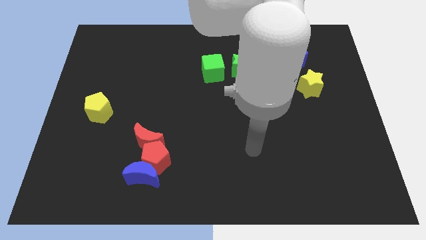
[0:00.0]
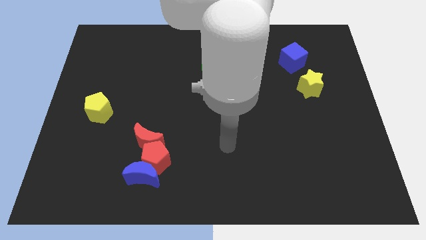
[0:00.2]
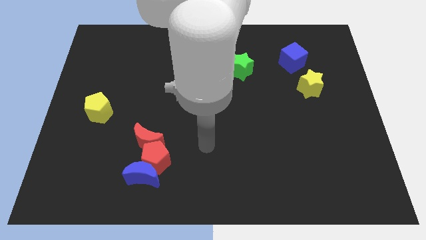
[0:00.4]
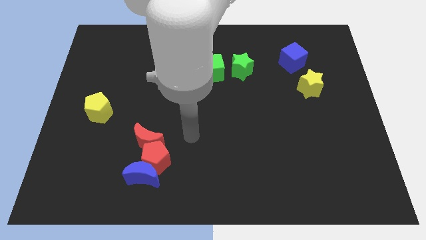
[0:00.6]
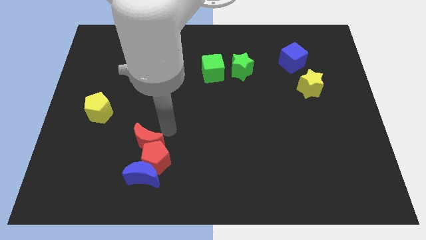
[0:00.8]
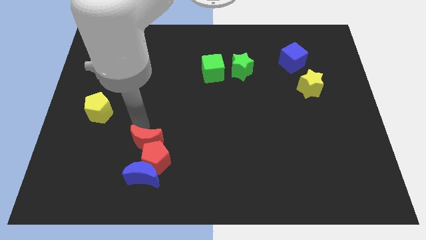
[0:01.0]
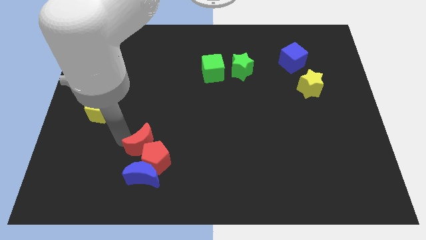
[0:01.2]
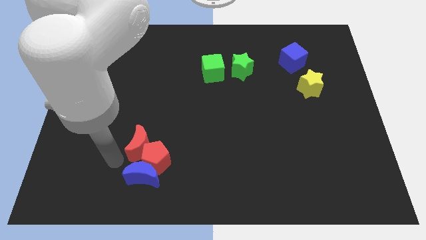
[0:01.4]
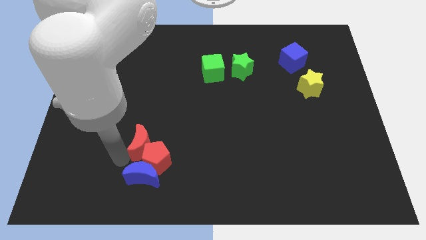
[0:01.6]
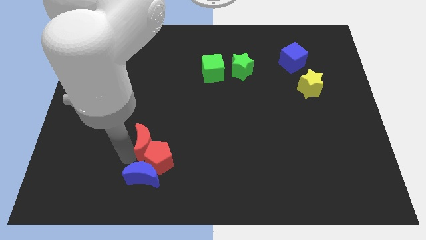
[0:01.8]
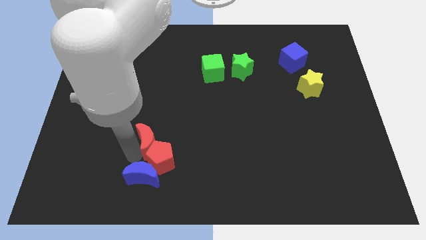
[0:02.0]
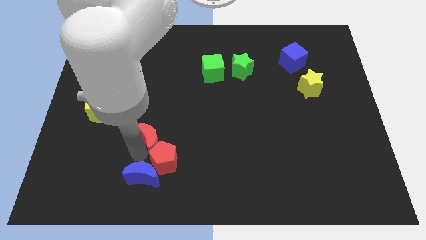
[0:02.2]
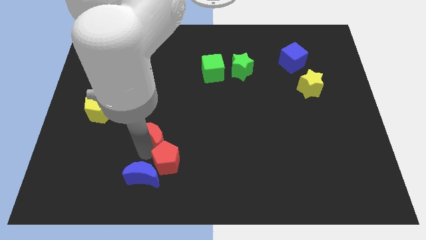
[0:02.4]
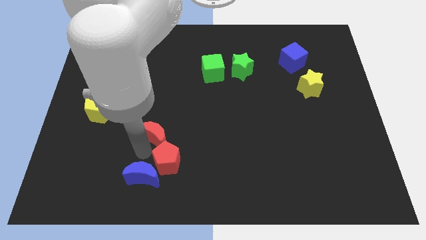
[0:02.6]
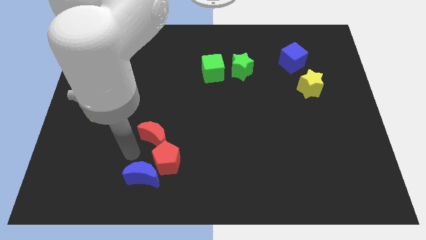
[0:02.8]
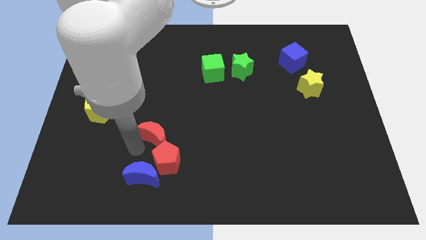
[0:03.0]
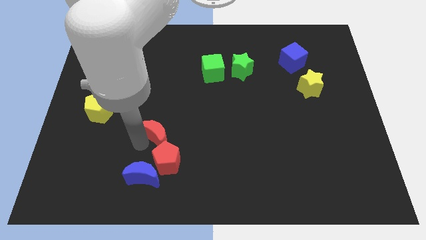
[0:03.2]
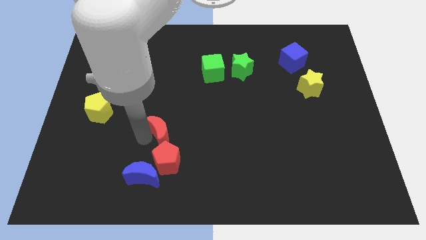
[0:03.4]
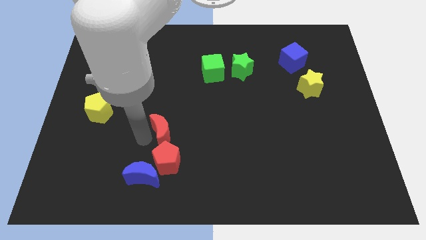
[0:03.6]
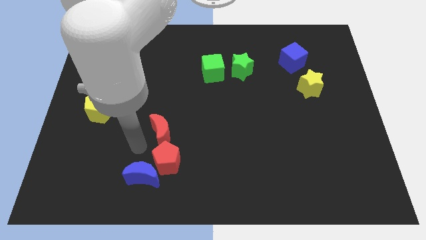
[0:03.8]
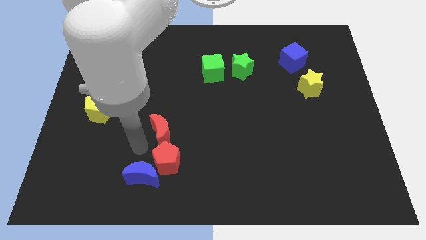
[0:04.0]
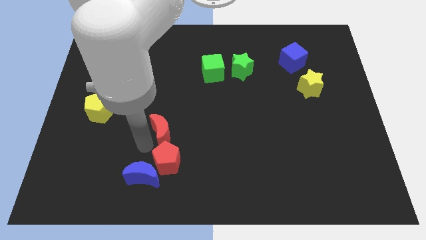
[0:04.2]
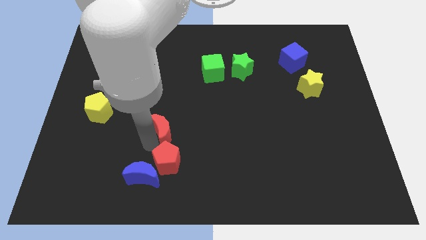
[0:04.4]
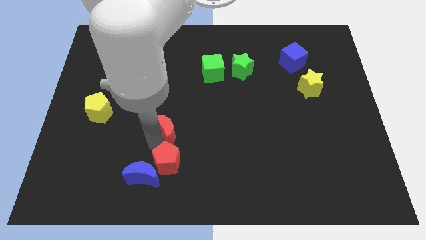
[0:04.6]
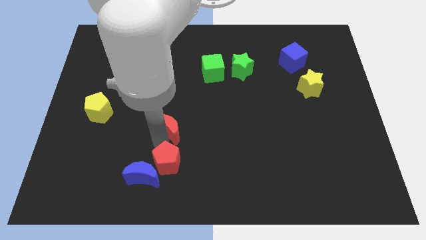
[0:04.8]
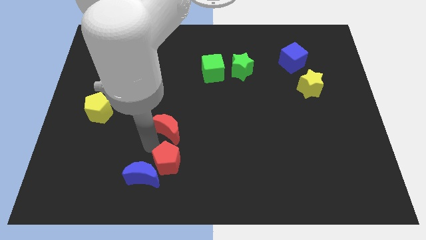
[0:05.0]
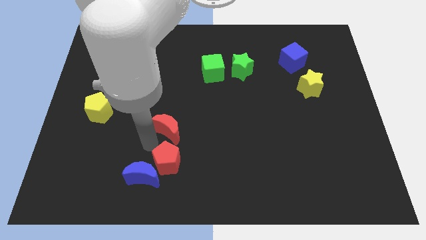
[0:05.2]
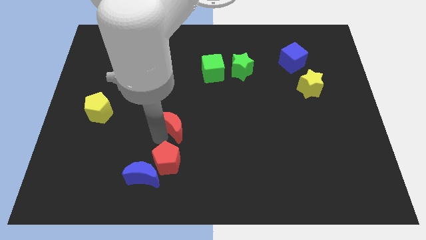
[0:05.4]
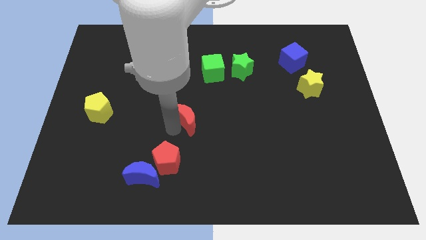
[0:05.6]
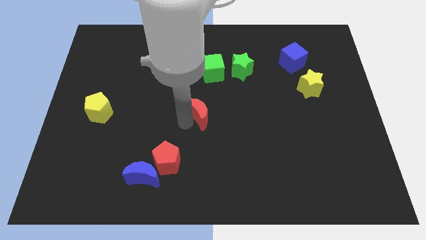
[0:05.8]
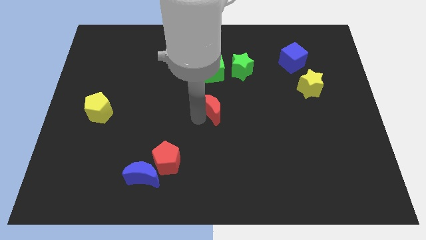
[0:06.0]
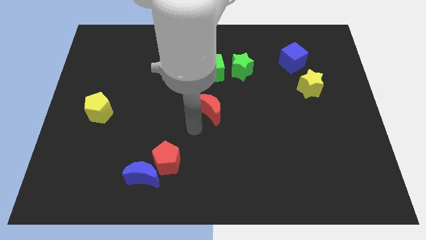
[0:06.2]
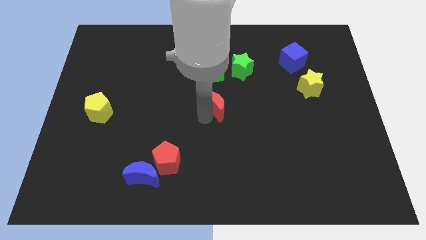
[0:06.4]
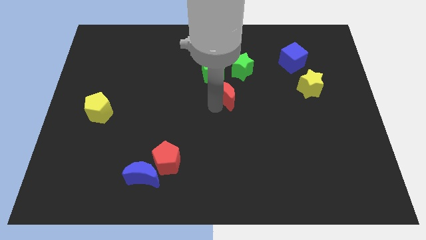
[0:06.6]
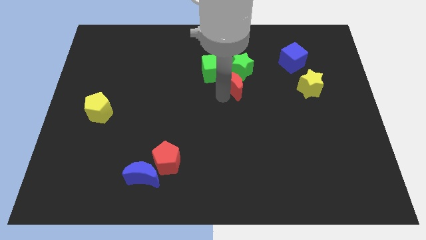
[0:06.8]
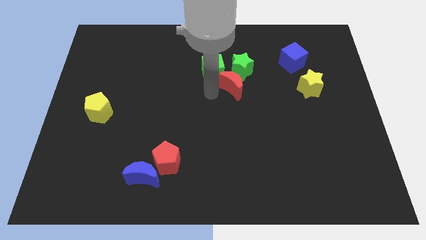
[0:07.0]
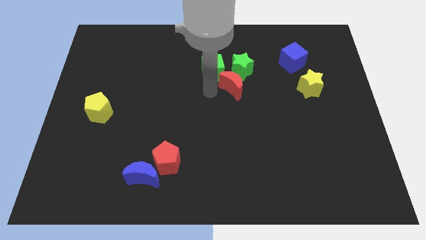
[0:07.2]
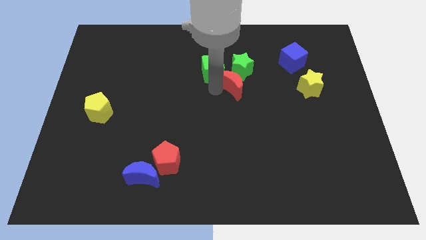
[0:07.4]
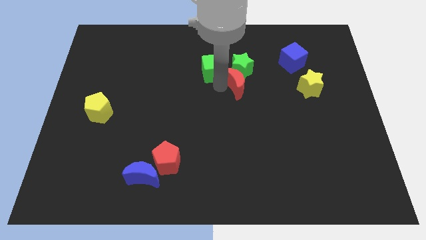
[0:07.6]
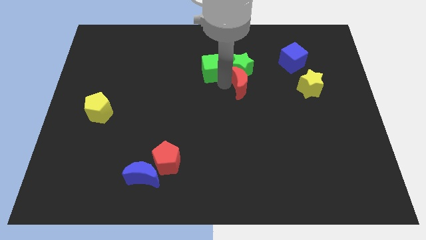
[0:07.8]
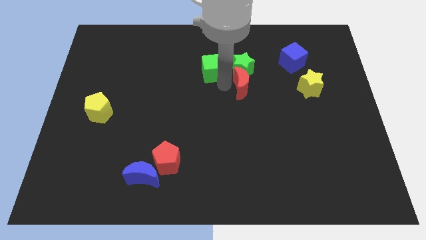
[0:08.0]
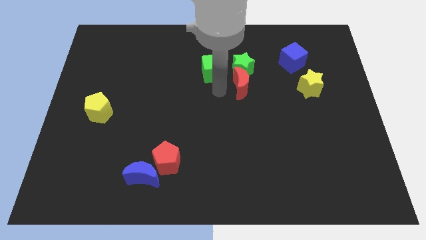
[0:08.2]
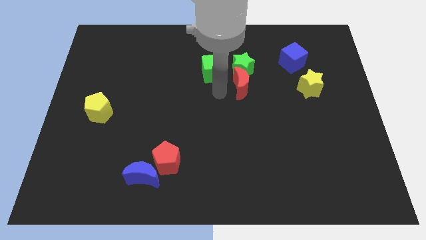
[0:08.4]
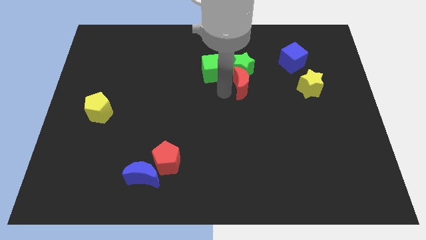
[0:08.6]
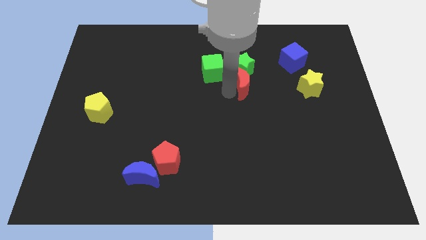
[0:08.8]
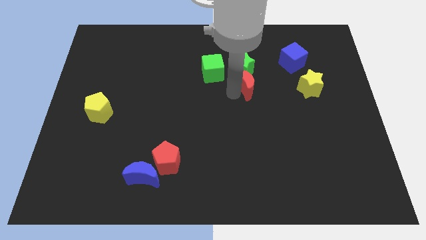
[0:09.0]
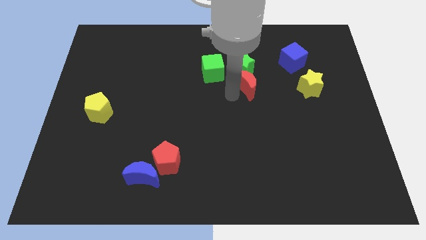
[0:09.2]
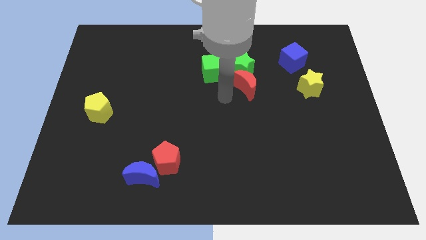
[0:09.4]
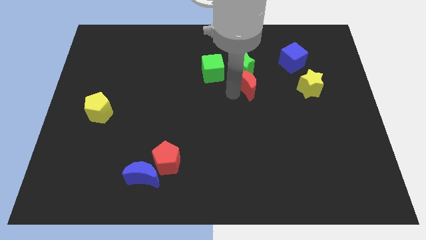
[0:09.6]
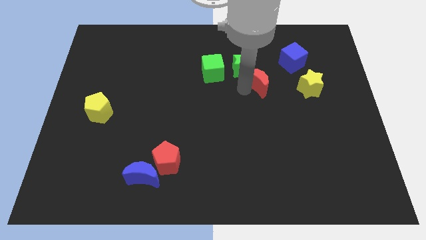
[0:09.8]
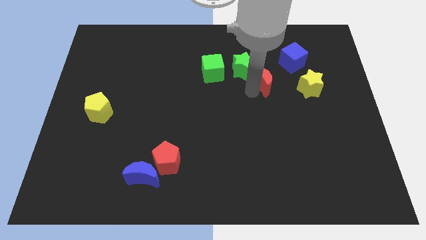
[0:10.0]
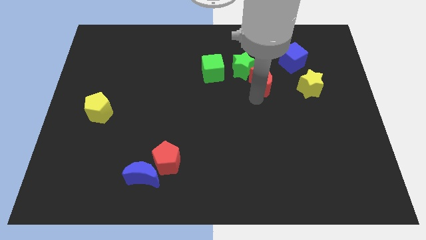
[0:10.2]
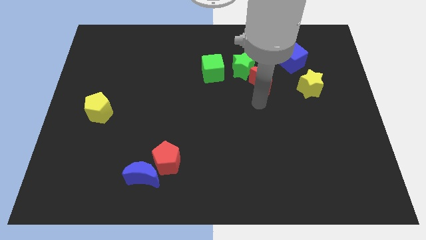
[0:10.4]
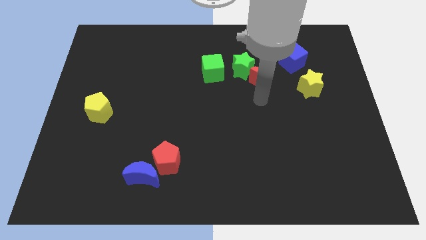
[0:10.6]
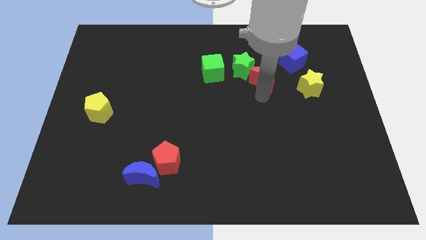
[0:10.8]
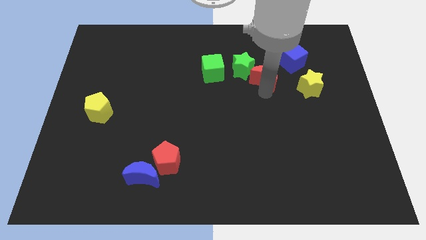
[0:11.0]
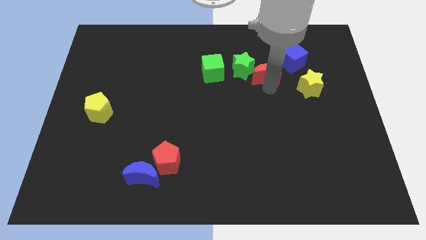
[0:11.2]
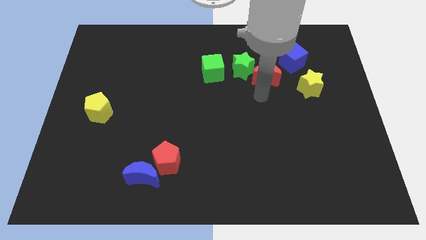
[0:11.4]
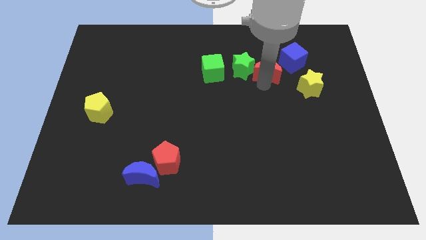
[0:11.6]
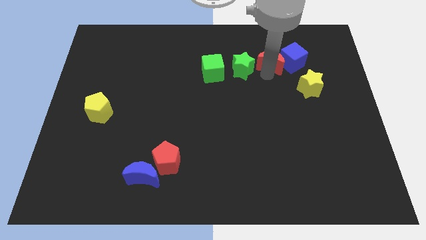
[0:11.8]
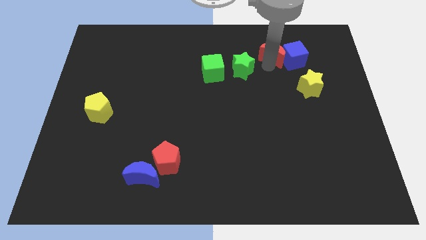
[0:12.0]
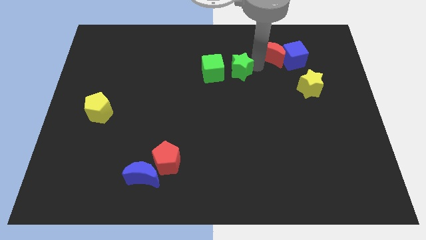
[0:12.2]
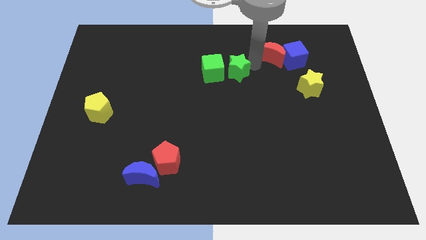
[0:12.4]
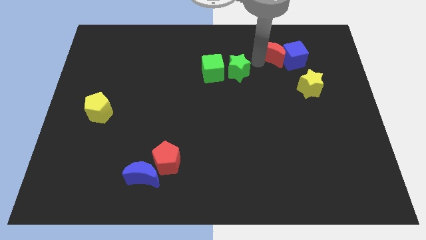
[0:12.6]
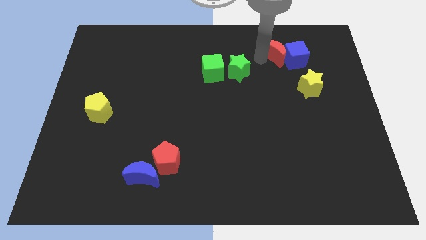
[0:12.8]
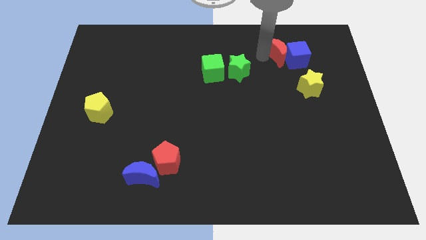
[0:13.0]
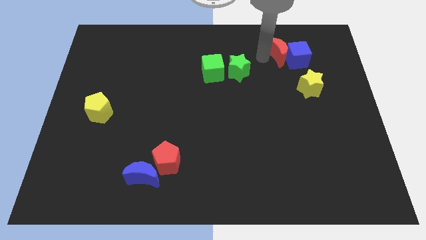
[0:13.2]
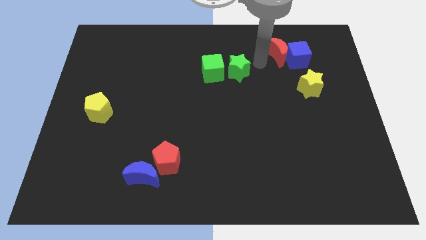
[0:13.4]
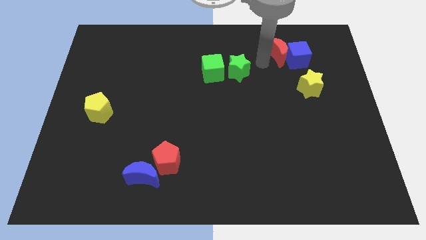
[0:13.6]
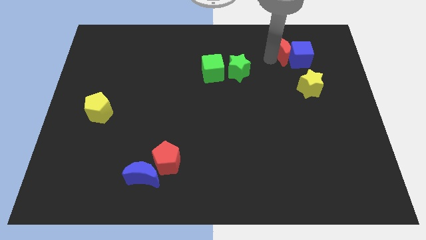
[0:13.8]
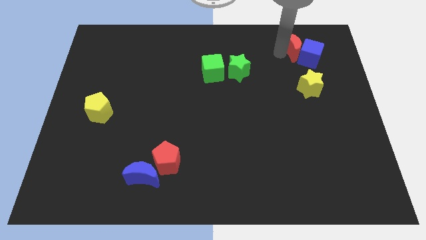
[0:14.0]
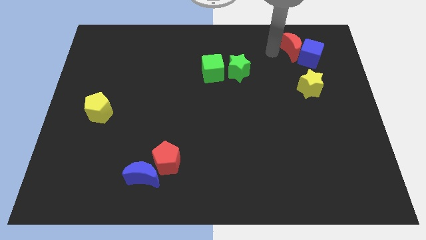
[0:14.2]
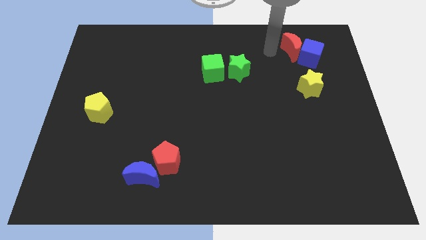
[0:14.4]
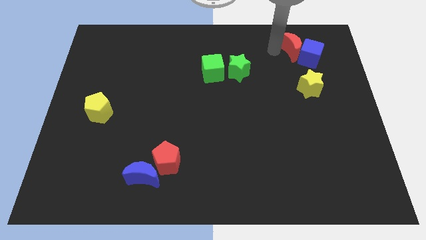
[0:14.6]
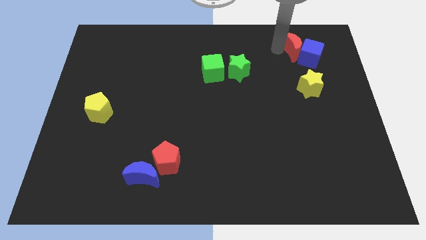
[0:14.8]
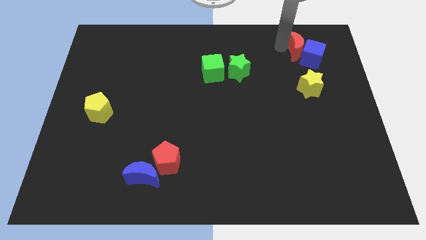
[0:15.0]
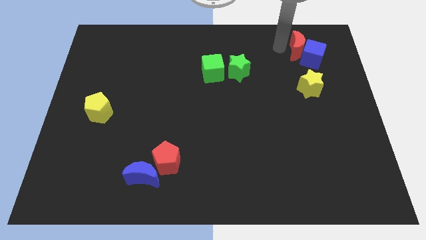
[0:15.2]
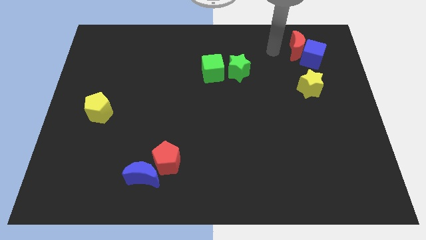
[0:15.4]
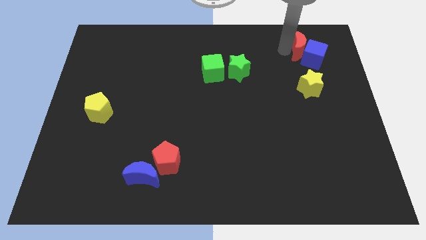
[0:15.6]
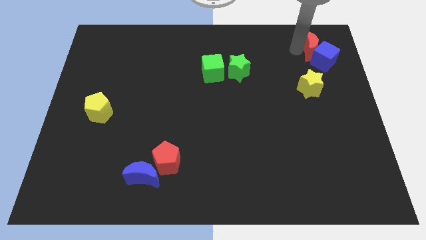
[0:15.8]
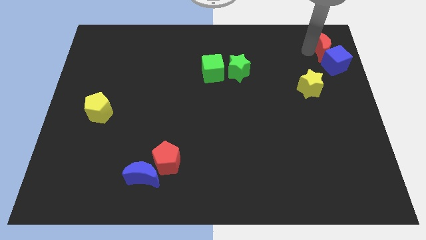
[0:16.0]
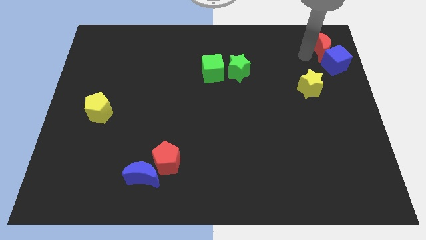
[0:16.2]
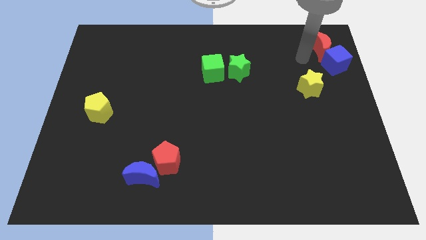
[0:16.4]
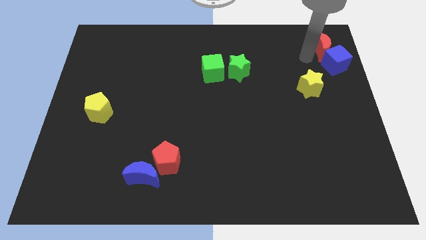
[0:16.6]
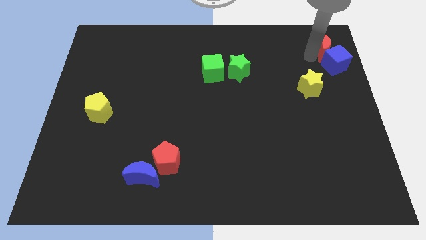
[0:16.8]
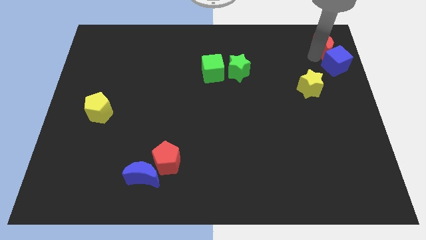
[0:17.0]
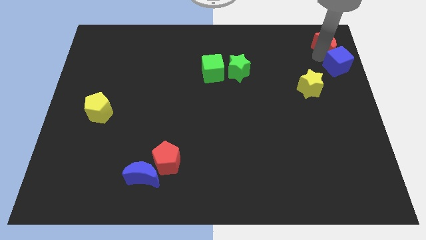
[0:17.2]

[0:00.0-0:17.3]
move the red moon to the top right corner
